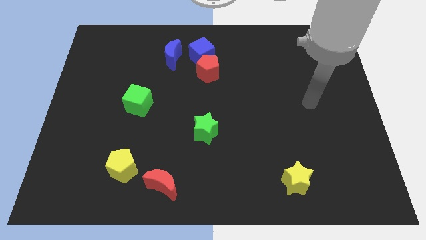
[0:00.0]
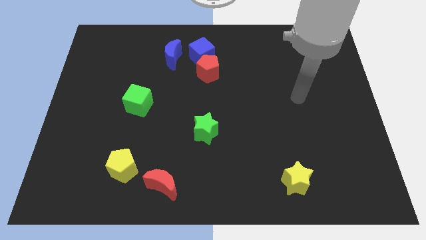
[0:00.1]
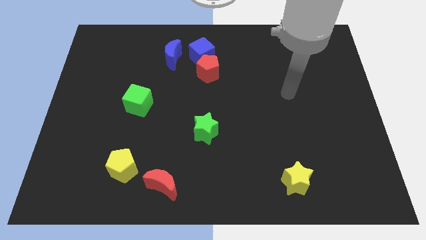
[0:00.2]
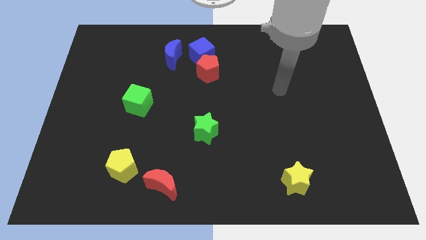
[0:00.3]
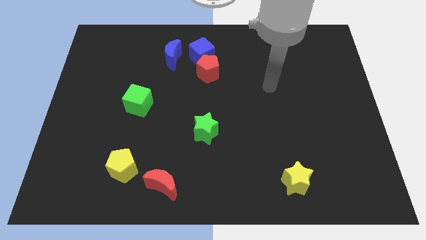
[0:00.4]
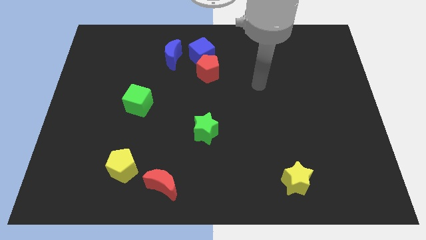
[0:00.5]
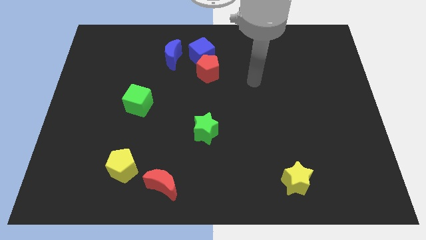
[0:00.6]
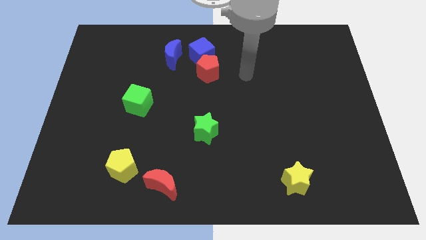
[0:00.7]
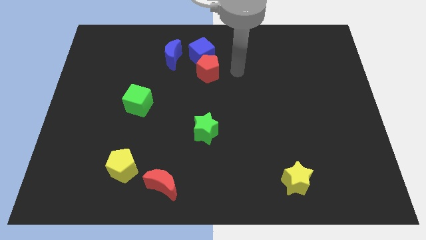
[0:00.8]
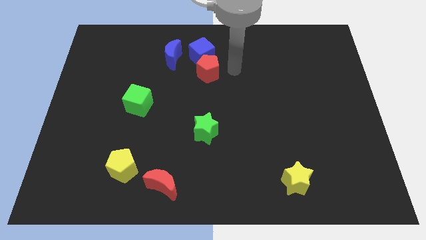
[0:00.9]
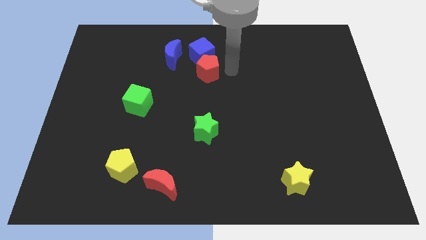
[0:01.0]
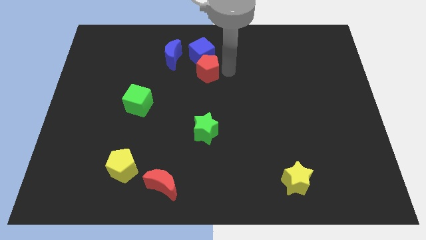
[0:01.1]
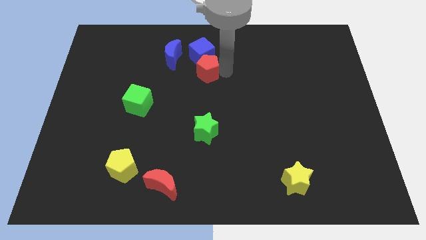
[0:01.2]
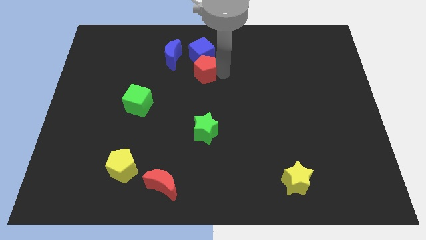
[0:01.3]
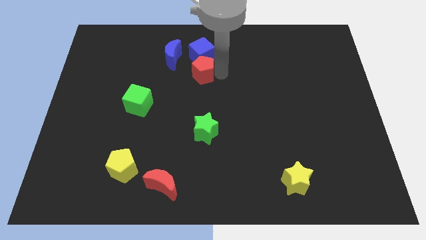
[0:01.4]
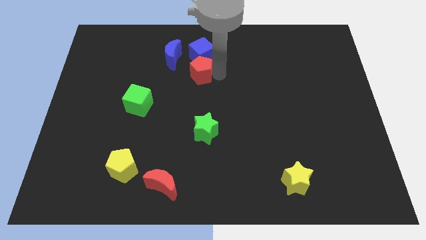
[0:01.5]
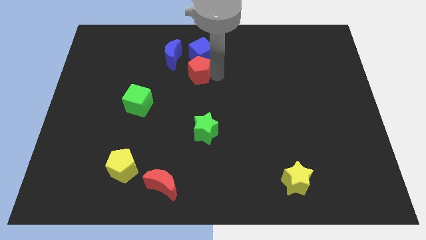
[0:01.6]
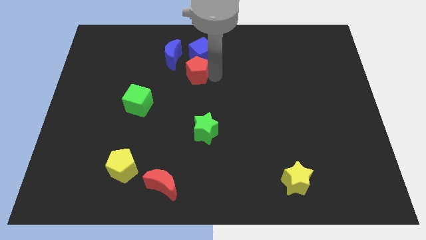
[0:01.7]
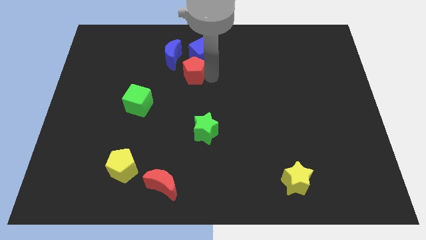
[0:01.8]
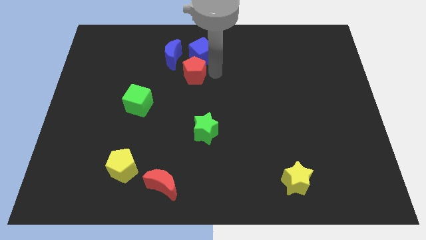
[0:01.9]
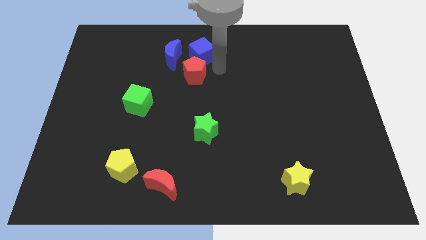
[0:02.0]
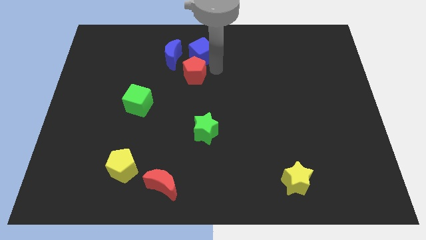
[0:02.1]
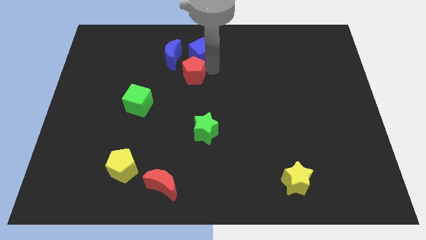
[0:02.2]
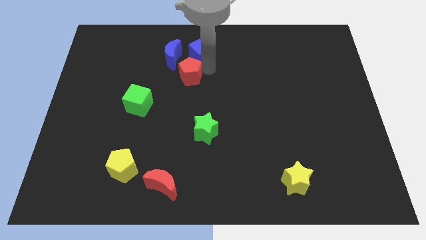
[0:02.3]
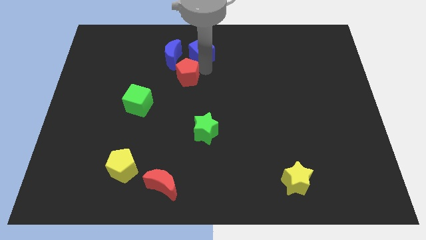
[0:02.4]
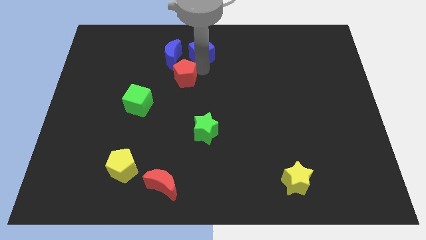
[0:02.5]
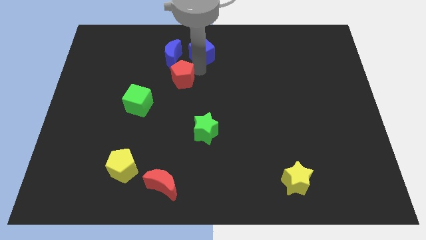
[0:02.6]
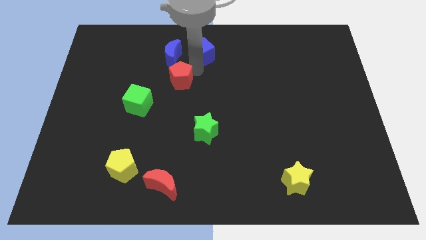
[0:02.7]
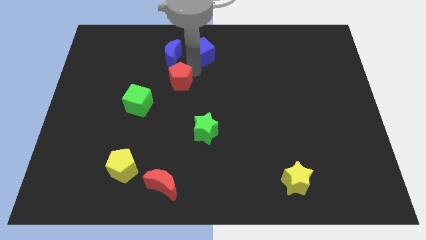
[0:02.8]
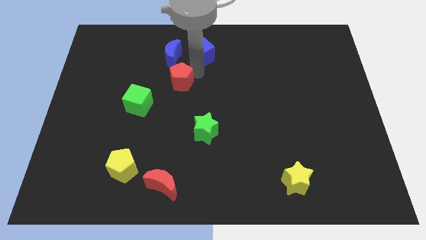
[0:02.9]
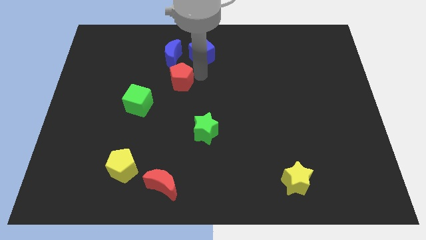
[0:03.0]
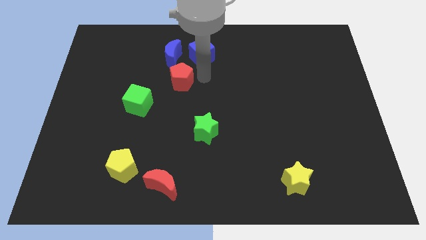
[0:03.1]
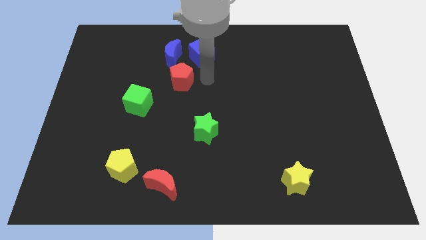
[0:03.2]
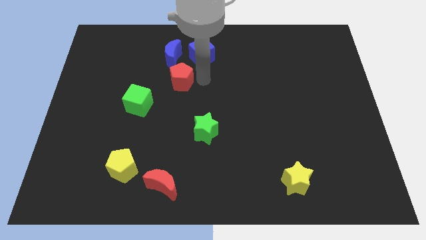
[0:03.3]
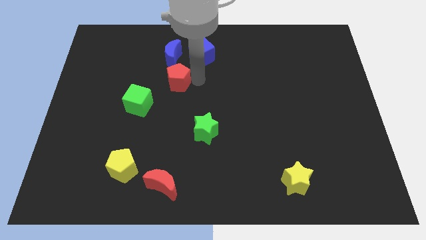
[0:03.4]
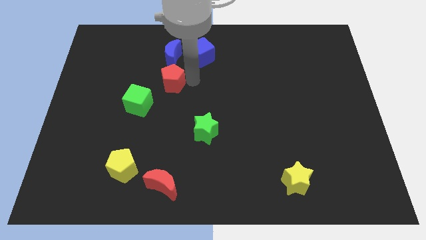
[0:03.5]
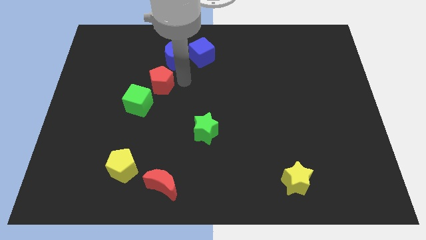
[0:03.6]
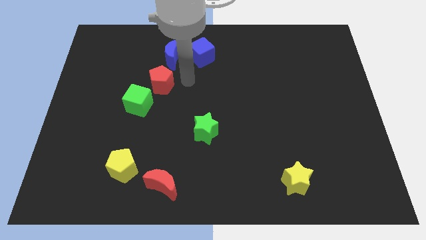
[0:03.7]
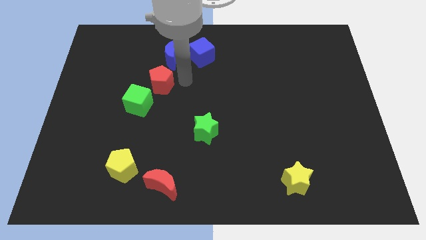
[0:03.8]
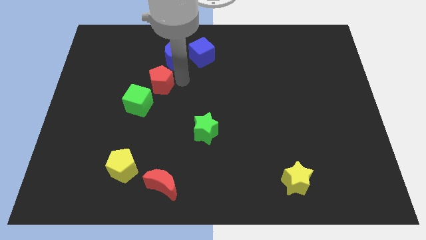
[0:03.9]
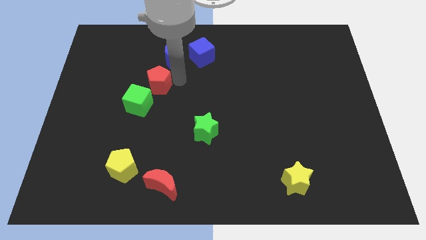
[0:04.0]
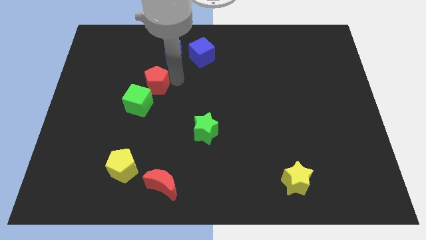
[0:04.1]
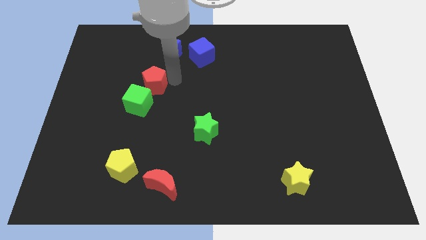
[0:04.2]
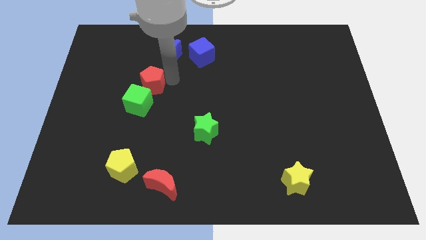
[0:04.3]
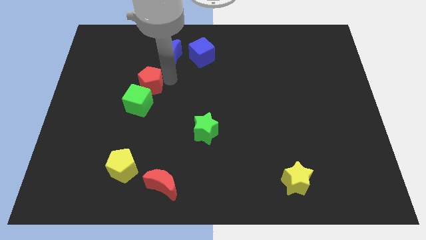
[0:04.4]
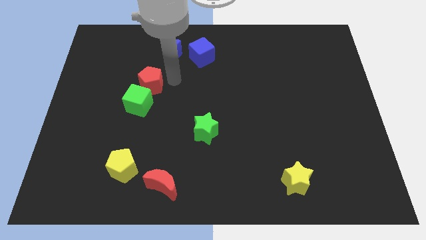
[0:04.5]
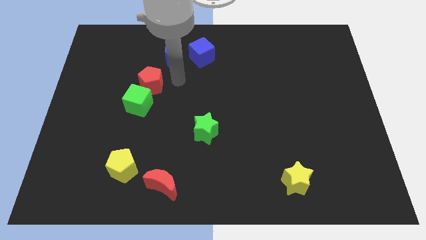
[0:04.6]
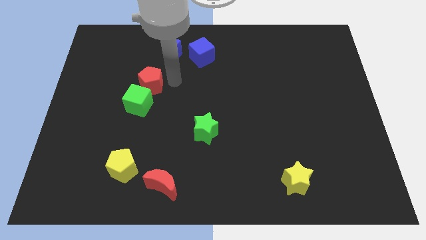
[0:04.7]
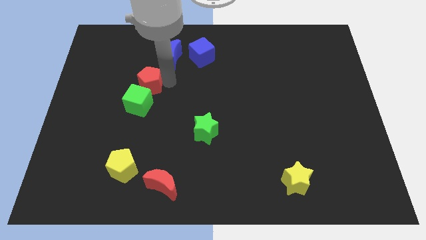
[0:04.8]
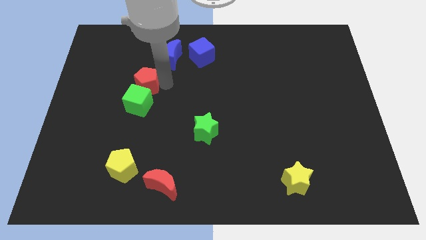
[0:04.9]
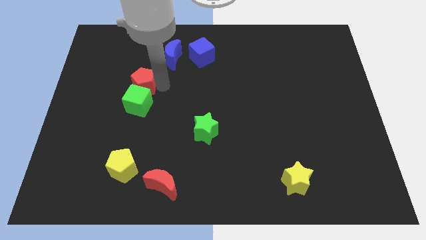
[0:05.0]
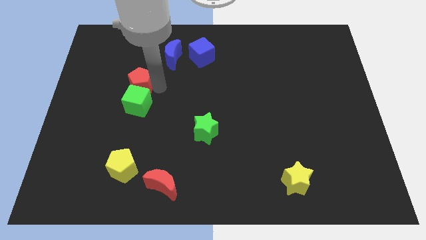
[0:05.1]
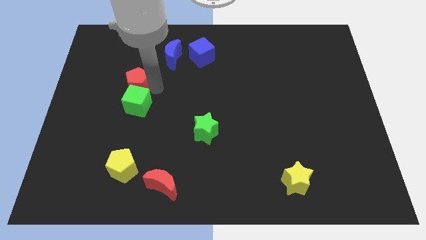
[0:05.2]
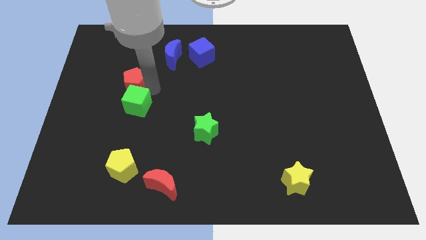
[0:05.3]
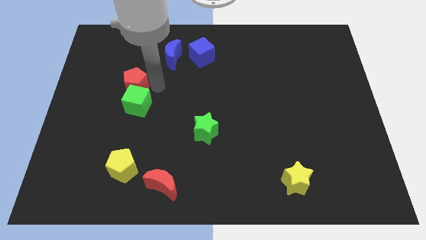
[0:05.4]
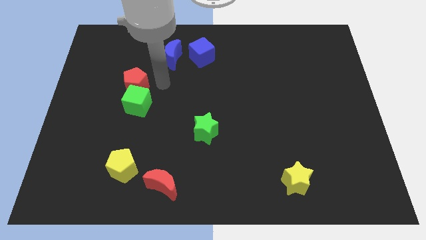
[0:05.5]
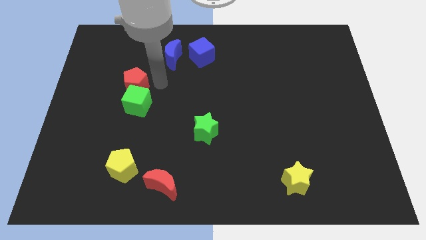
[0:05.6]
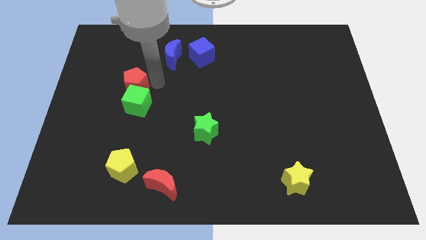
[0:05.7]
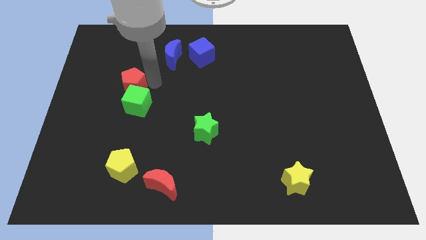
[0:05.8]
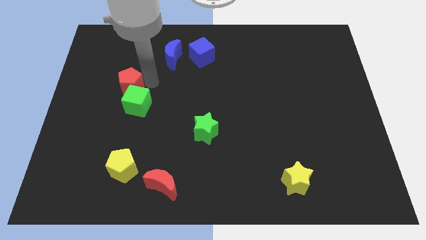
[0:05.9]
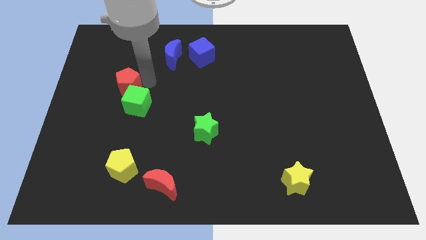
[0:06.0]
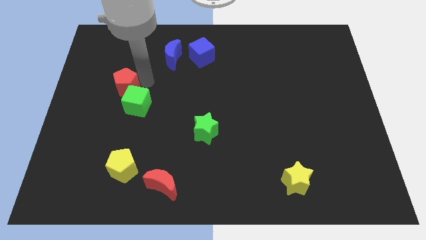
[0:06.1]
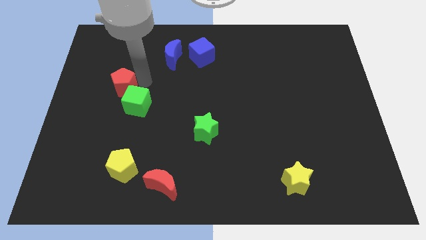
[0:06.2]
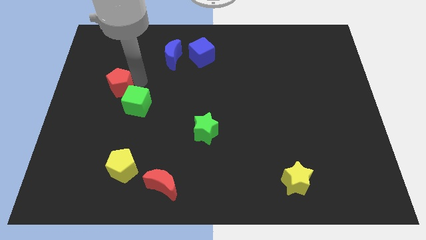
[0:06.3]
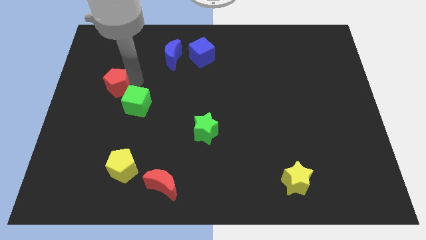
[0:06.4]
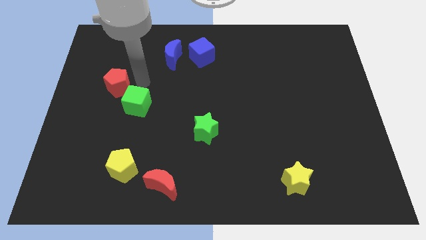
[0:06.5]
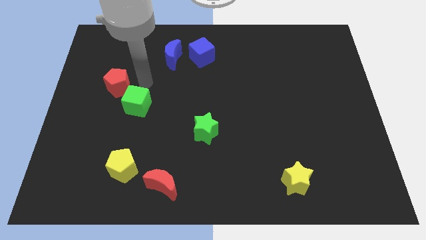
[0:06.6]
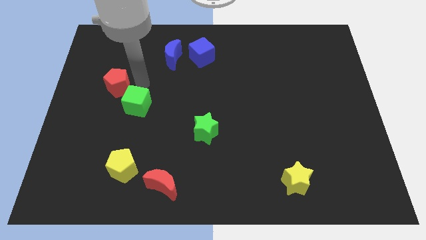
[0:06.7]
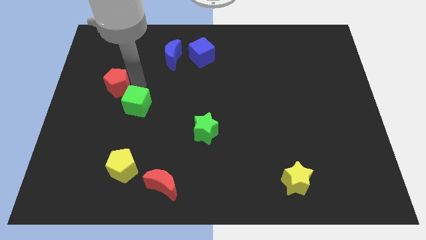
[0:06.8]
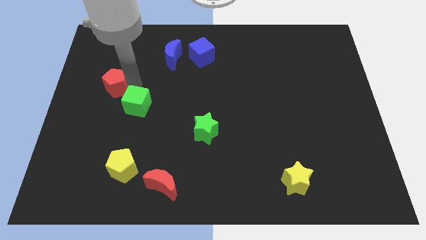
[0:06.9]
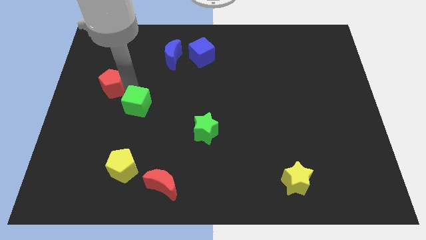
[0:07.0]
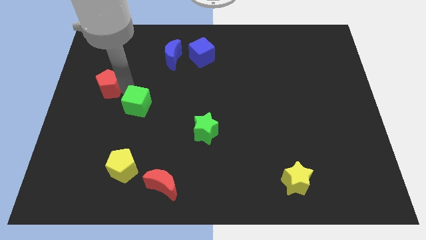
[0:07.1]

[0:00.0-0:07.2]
move the red pentagon to the left side of the board
